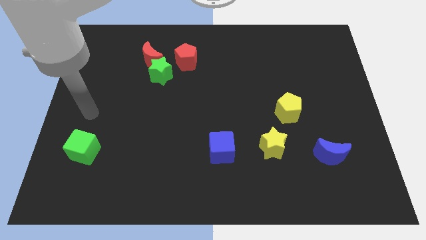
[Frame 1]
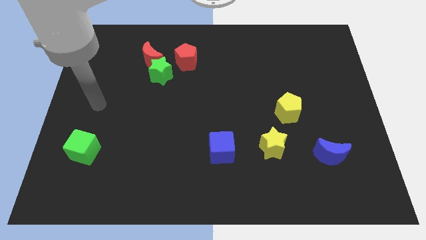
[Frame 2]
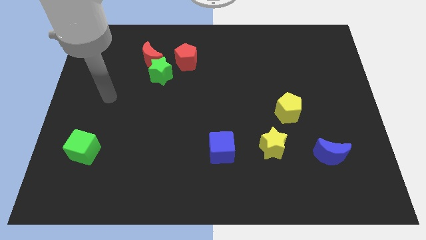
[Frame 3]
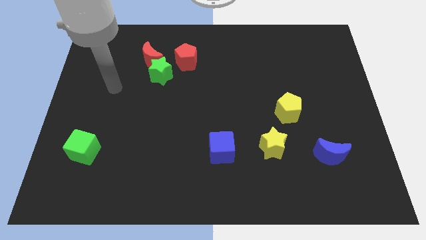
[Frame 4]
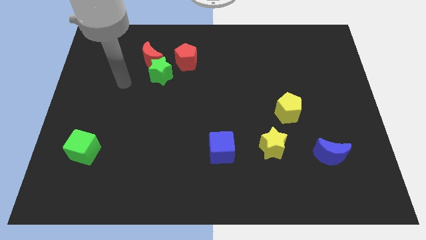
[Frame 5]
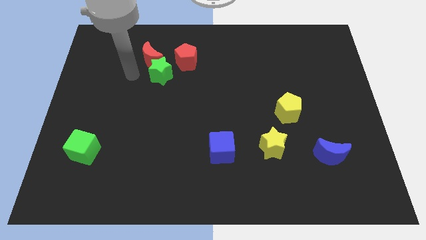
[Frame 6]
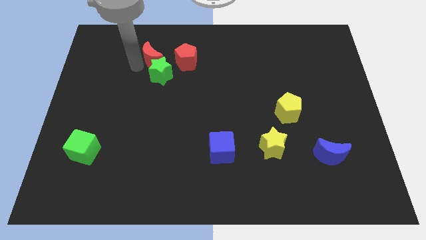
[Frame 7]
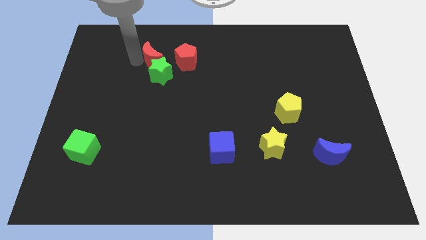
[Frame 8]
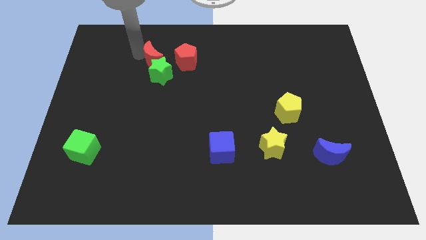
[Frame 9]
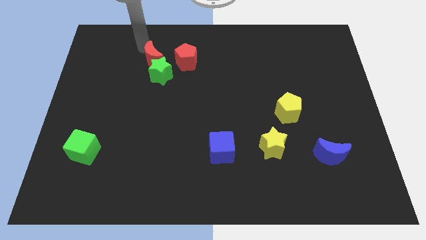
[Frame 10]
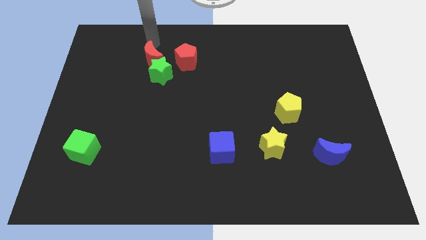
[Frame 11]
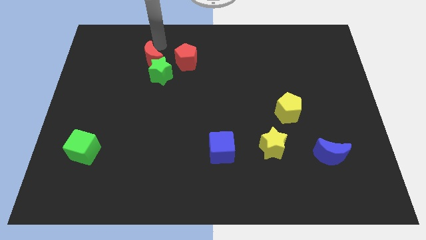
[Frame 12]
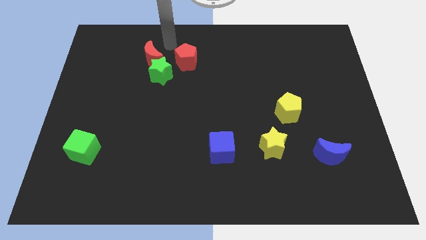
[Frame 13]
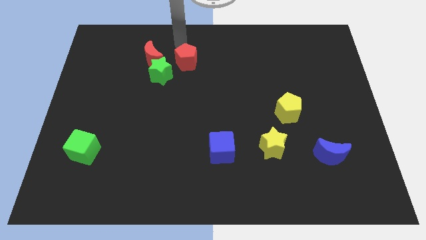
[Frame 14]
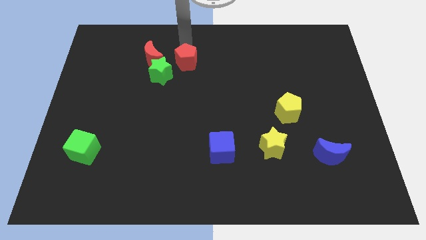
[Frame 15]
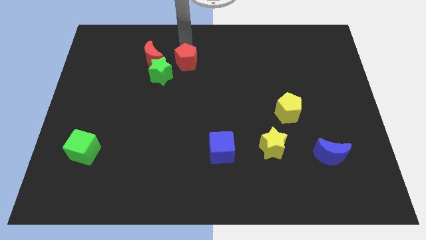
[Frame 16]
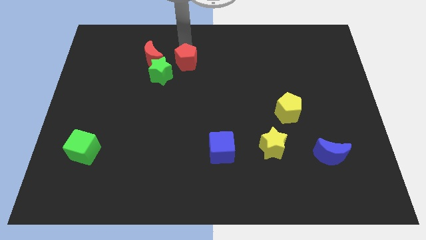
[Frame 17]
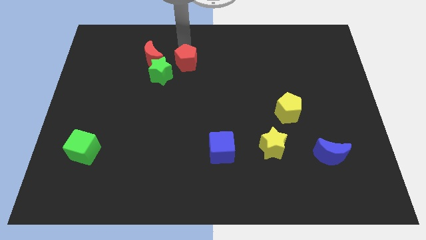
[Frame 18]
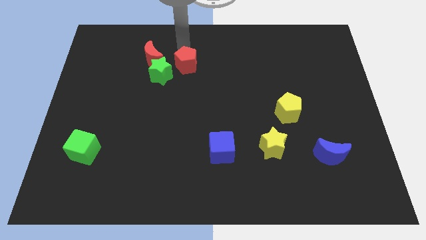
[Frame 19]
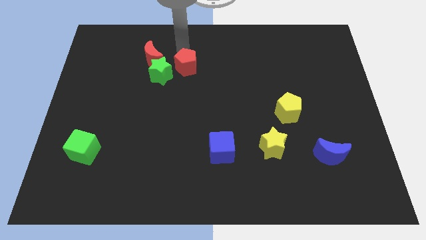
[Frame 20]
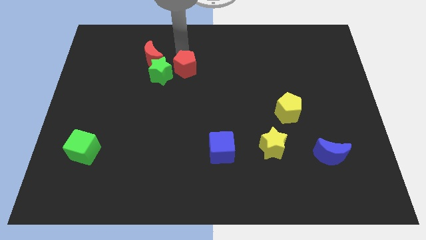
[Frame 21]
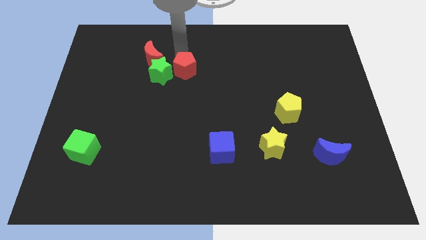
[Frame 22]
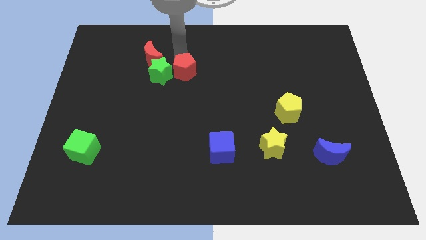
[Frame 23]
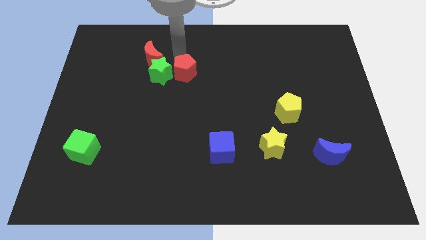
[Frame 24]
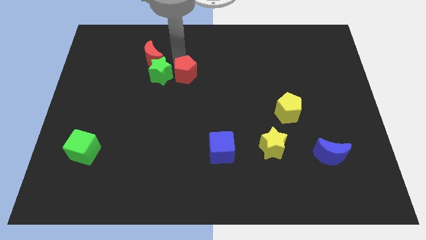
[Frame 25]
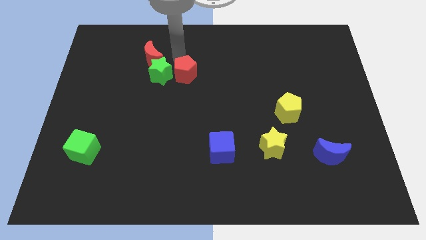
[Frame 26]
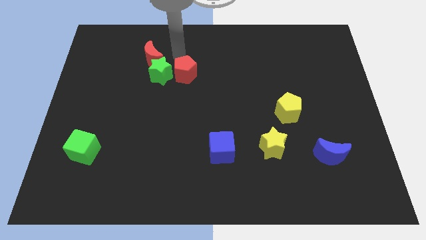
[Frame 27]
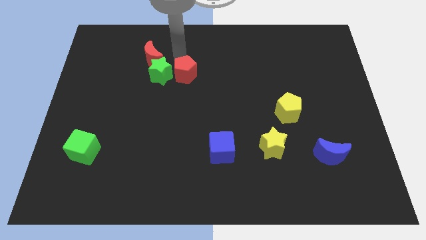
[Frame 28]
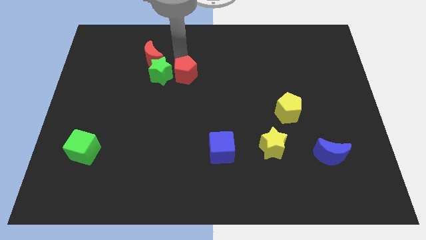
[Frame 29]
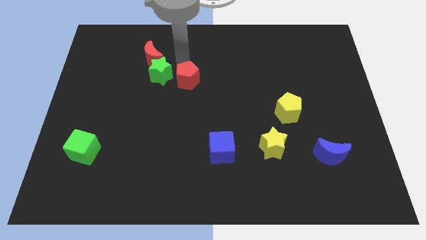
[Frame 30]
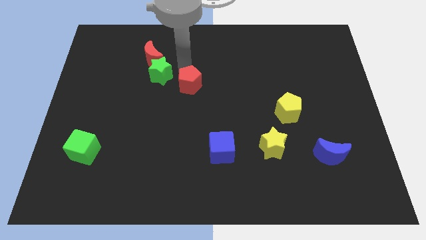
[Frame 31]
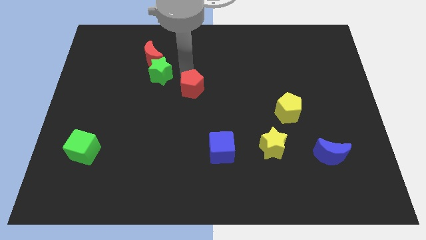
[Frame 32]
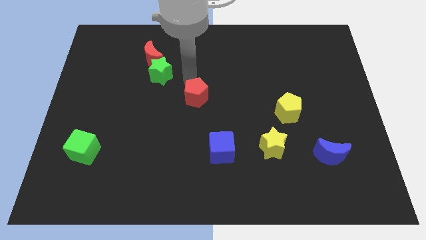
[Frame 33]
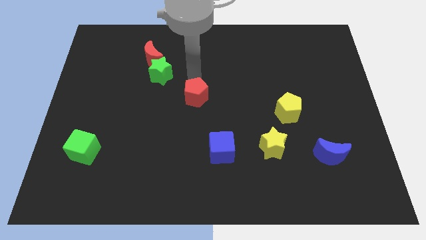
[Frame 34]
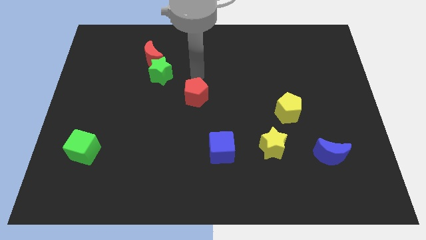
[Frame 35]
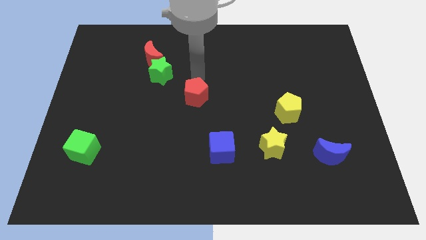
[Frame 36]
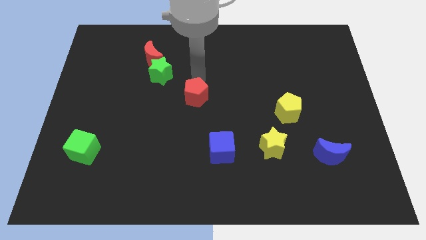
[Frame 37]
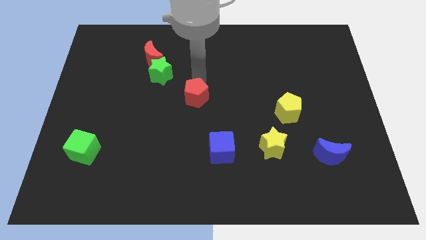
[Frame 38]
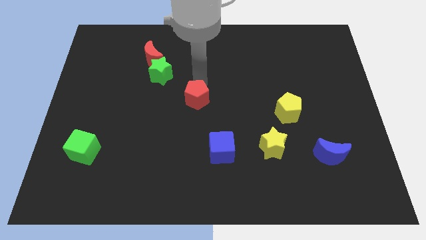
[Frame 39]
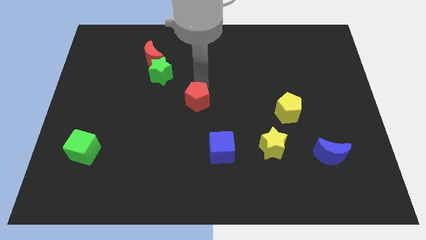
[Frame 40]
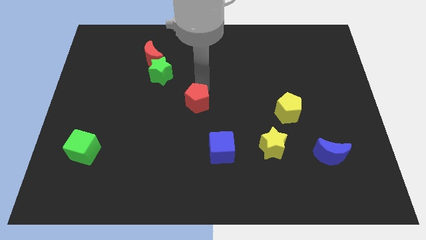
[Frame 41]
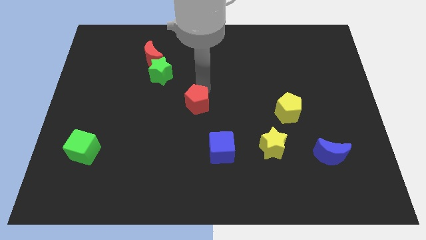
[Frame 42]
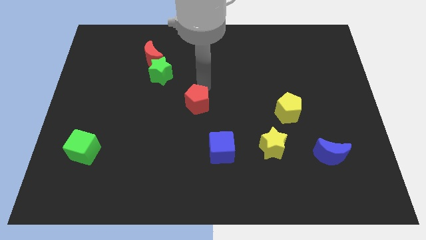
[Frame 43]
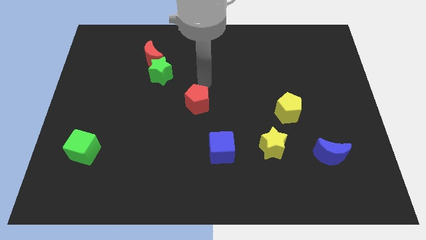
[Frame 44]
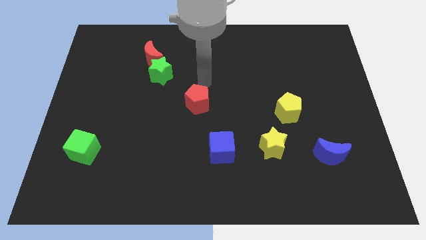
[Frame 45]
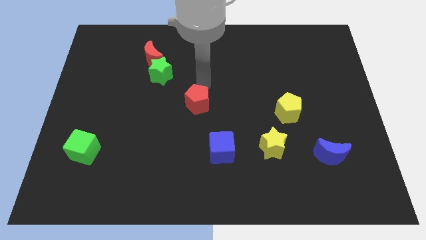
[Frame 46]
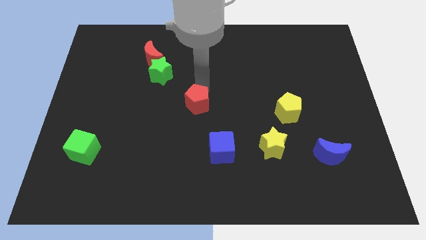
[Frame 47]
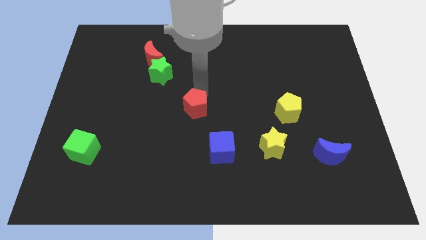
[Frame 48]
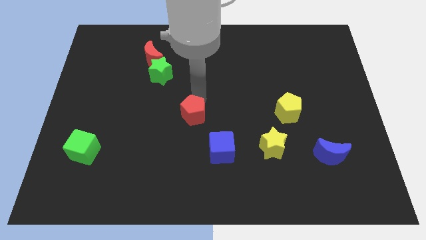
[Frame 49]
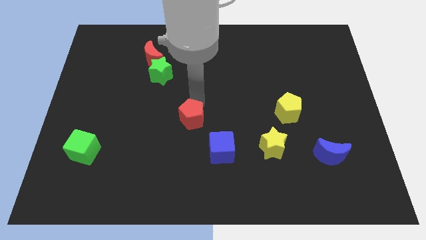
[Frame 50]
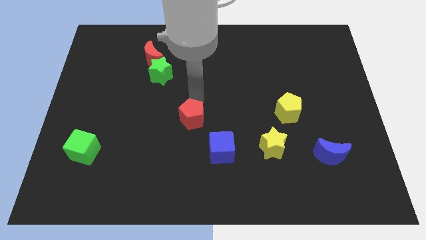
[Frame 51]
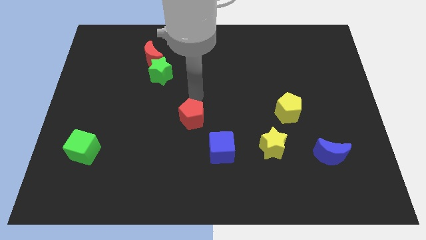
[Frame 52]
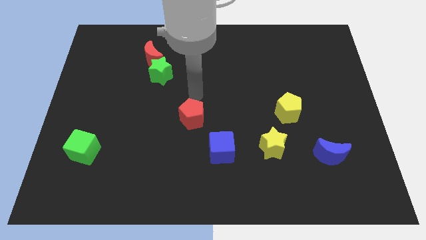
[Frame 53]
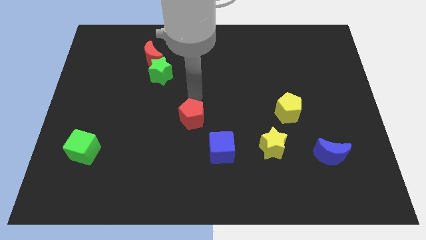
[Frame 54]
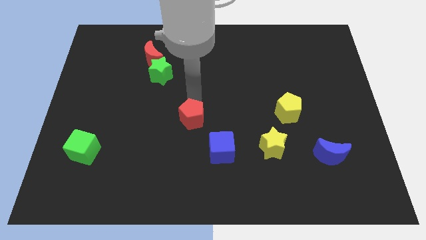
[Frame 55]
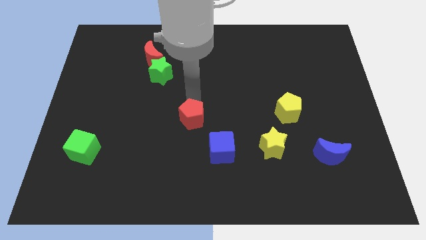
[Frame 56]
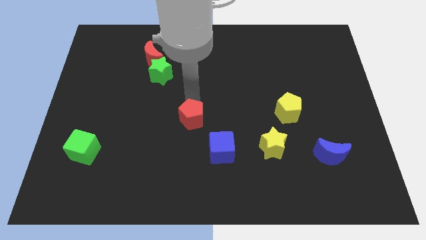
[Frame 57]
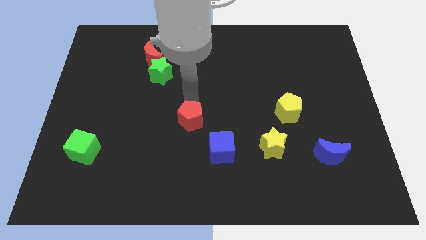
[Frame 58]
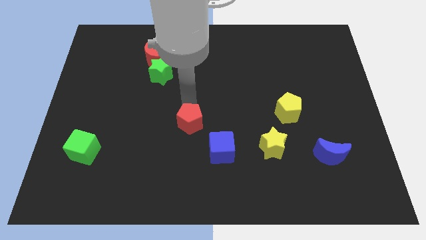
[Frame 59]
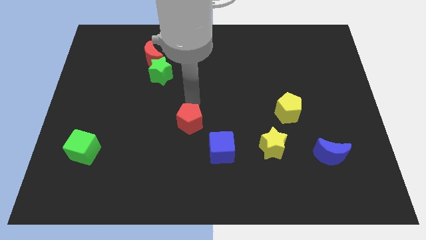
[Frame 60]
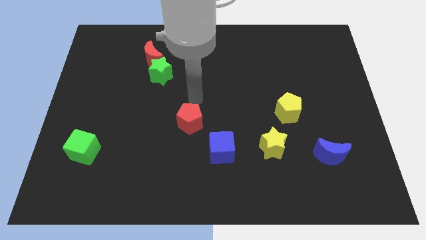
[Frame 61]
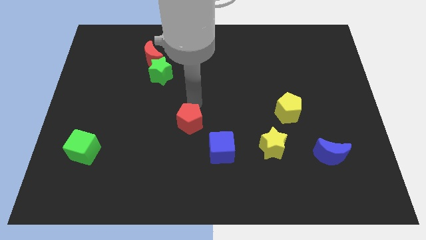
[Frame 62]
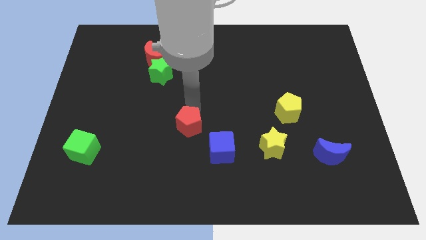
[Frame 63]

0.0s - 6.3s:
push the red pentagon down

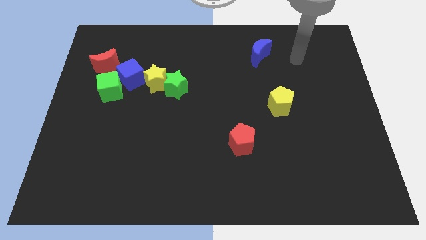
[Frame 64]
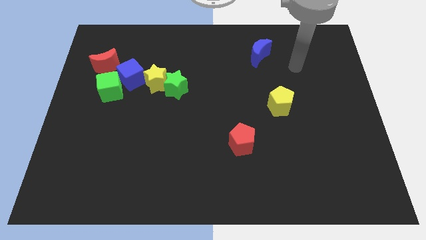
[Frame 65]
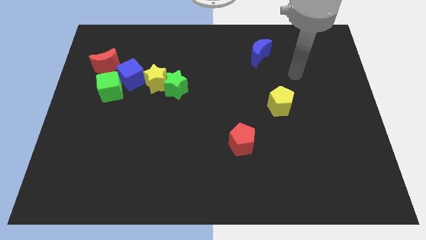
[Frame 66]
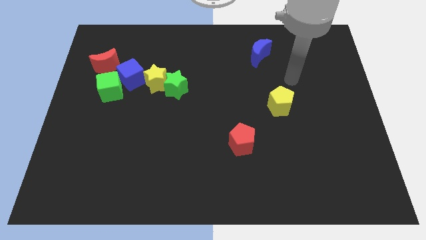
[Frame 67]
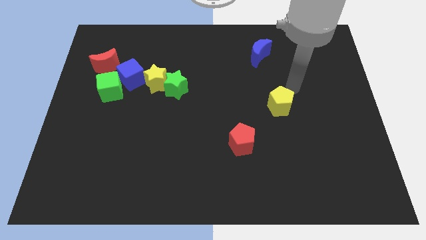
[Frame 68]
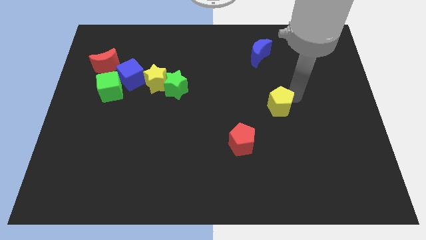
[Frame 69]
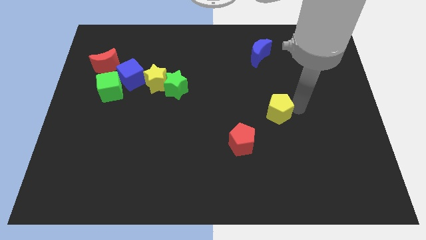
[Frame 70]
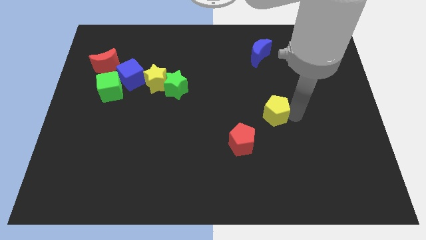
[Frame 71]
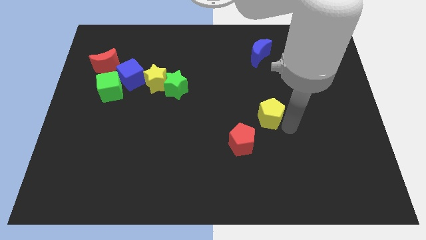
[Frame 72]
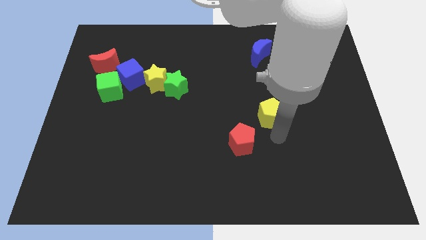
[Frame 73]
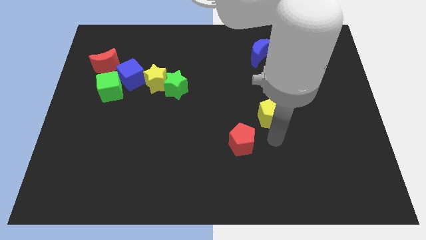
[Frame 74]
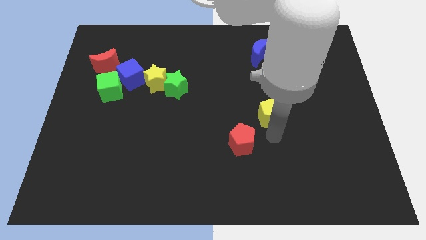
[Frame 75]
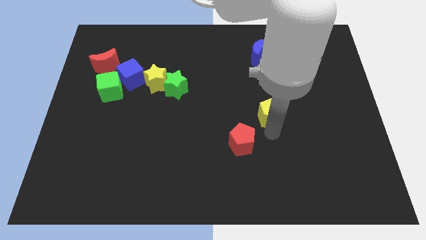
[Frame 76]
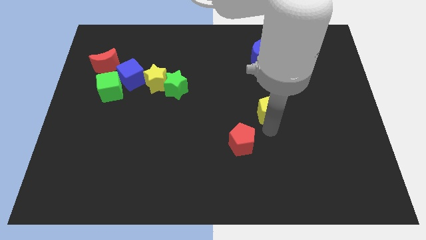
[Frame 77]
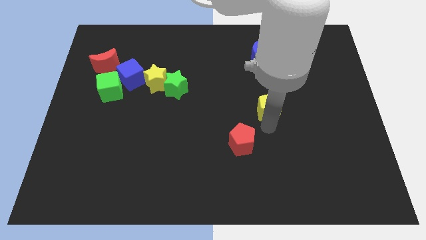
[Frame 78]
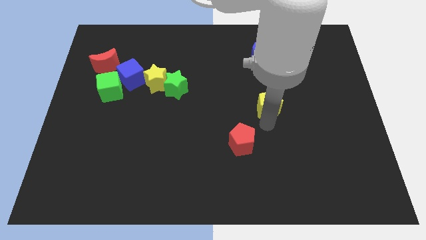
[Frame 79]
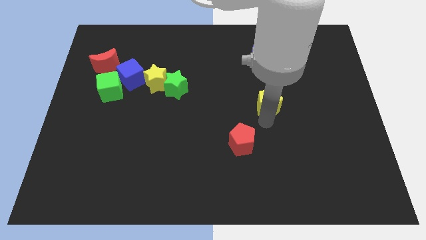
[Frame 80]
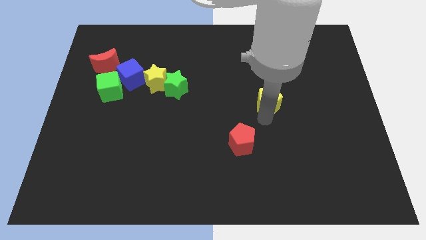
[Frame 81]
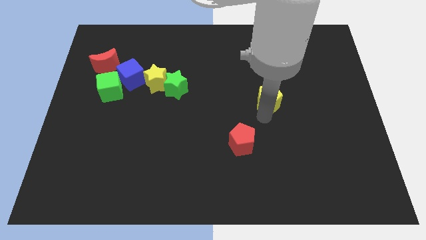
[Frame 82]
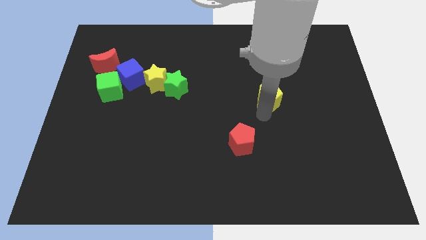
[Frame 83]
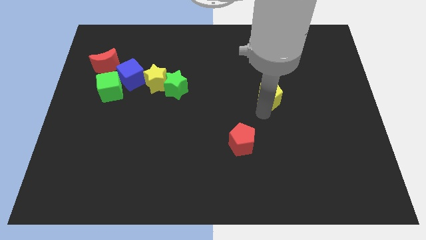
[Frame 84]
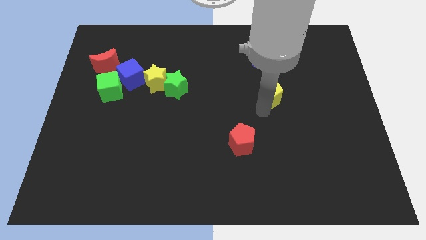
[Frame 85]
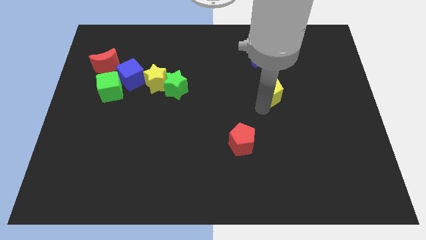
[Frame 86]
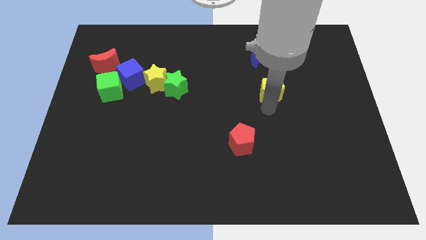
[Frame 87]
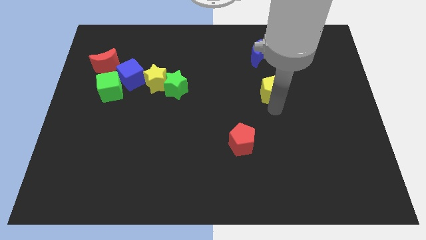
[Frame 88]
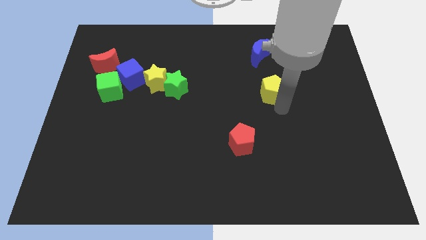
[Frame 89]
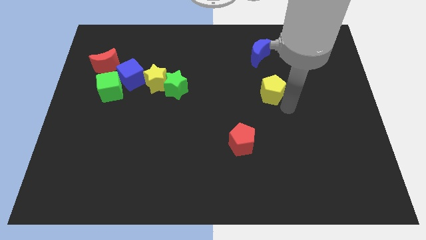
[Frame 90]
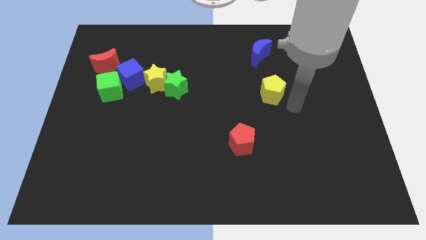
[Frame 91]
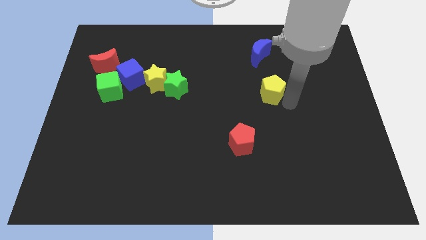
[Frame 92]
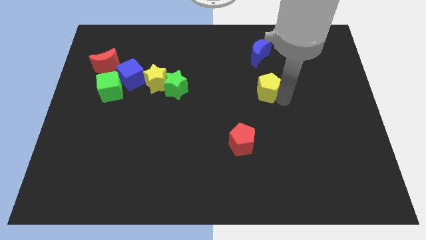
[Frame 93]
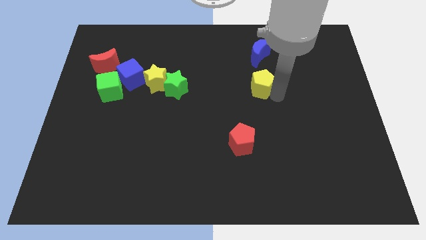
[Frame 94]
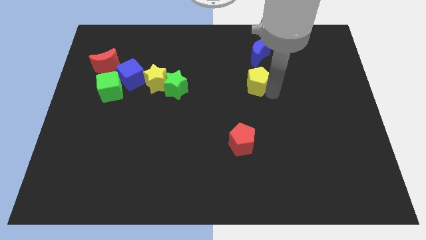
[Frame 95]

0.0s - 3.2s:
move the yellow pentagon somewhat up and then left
